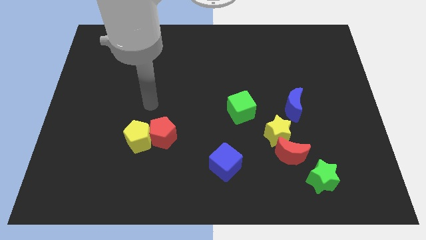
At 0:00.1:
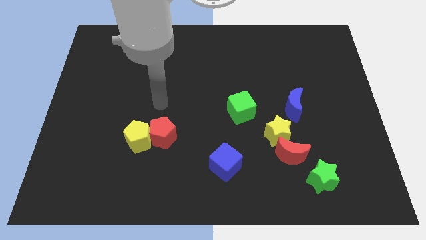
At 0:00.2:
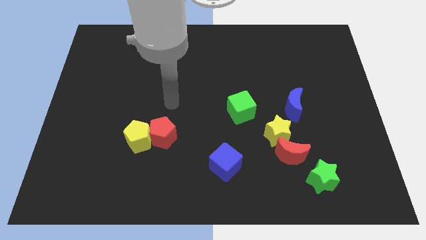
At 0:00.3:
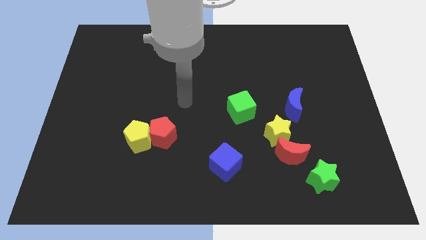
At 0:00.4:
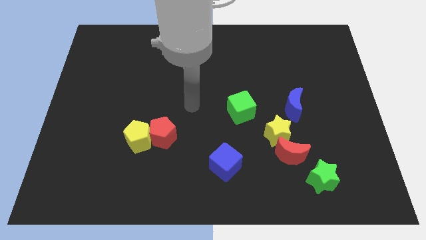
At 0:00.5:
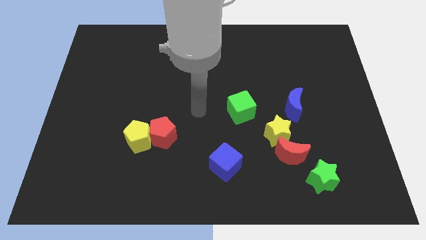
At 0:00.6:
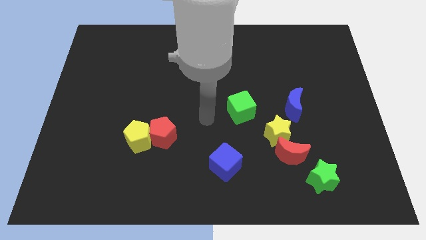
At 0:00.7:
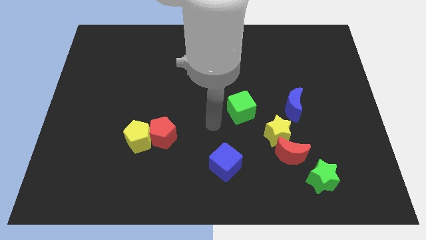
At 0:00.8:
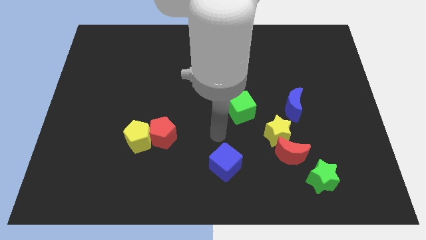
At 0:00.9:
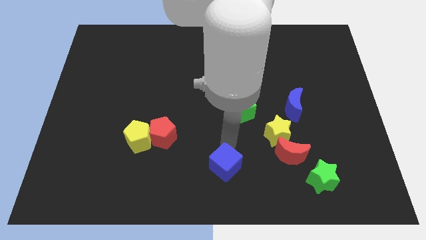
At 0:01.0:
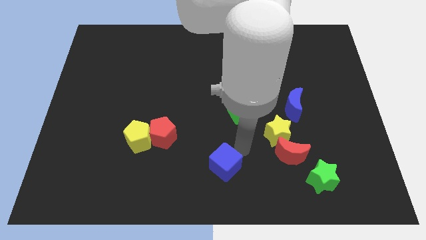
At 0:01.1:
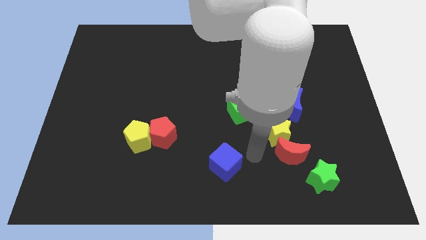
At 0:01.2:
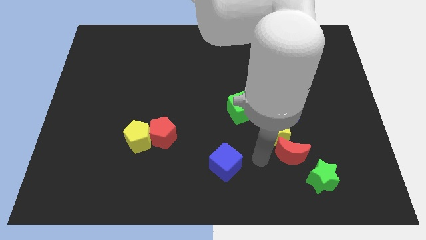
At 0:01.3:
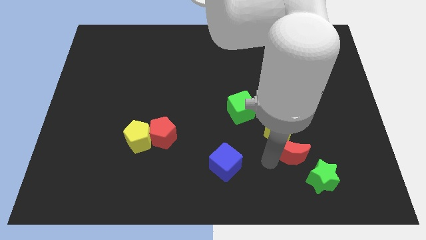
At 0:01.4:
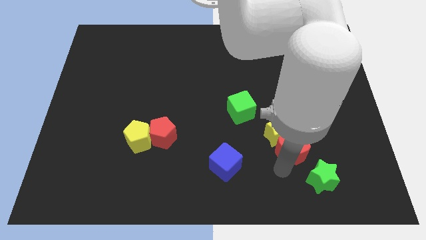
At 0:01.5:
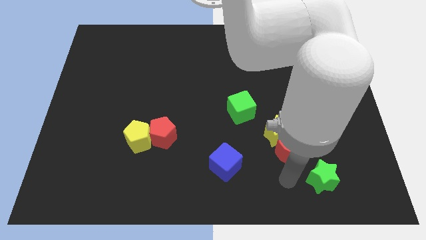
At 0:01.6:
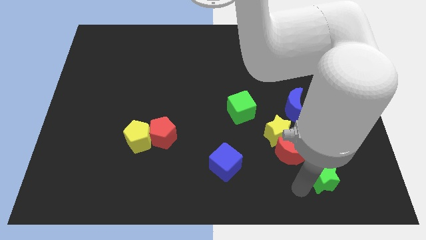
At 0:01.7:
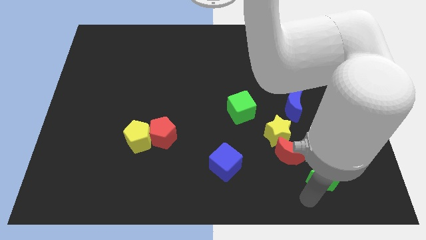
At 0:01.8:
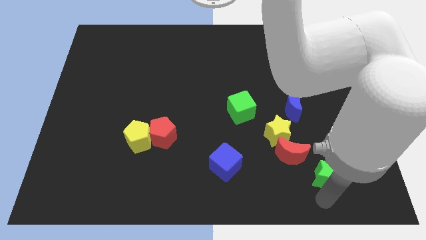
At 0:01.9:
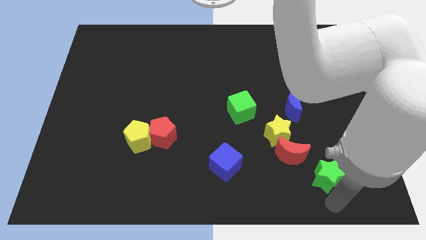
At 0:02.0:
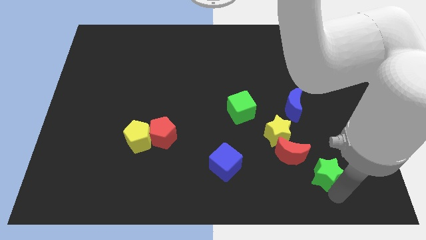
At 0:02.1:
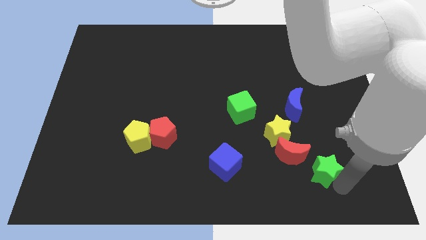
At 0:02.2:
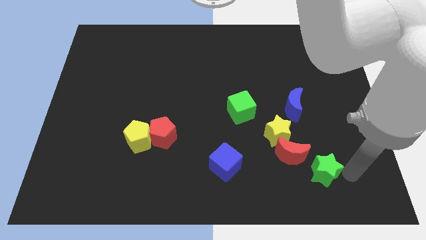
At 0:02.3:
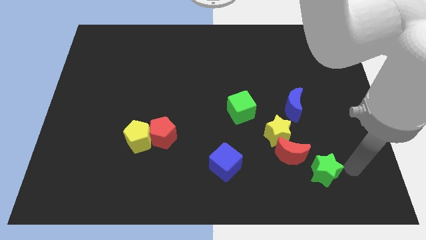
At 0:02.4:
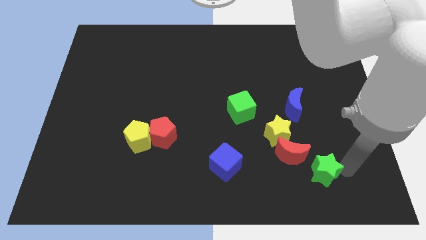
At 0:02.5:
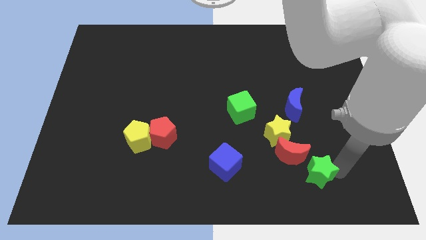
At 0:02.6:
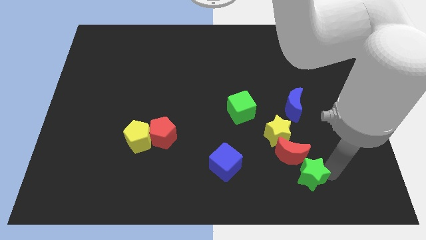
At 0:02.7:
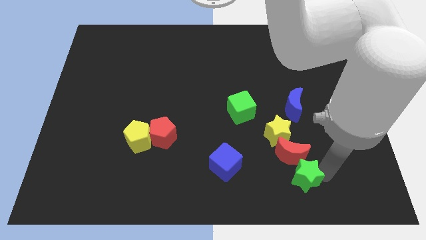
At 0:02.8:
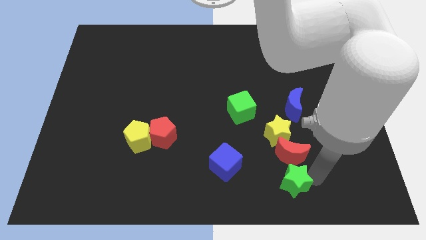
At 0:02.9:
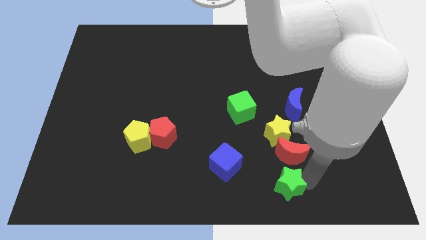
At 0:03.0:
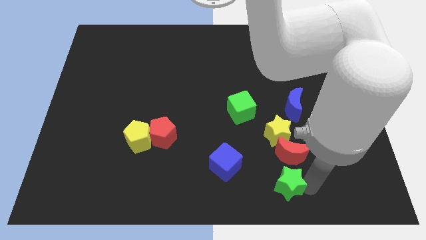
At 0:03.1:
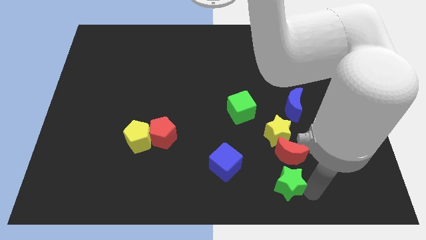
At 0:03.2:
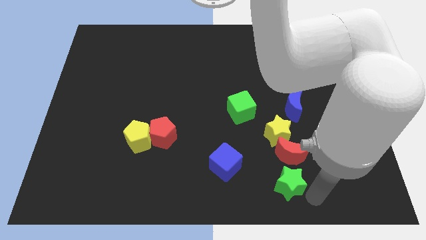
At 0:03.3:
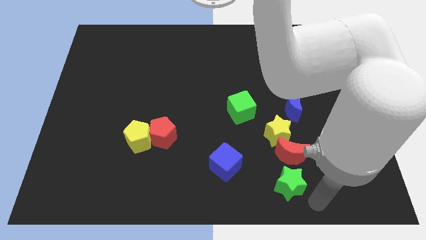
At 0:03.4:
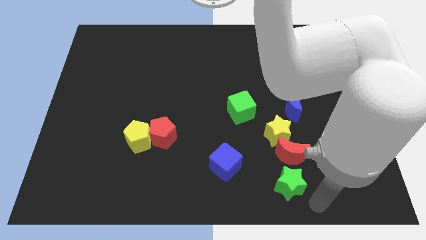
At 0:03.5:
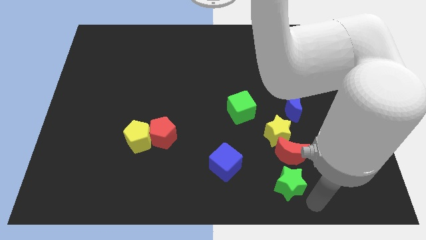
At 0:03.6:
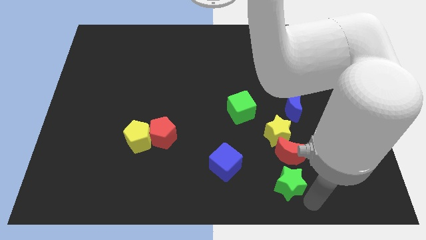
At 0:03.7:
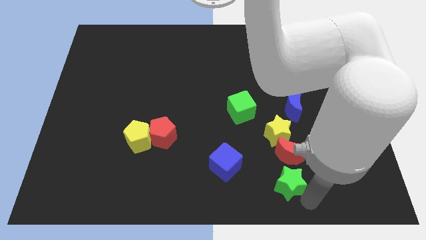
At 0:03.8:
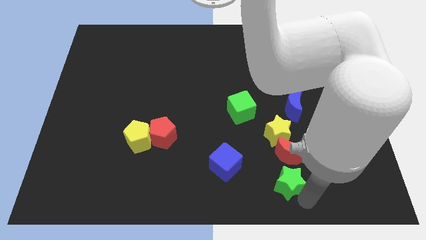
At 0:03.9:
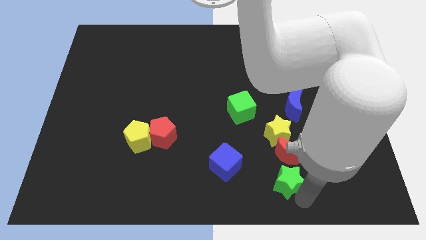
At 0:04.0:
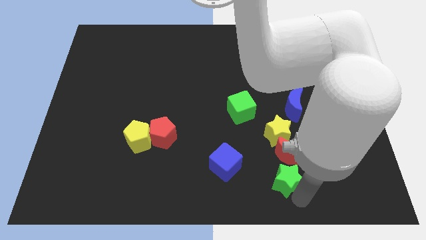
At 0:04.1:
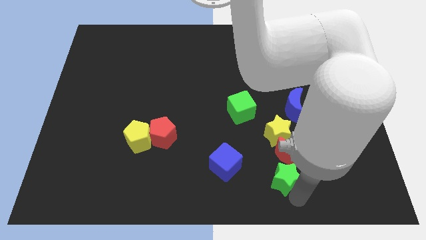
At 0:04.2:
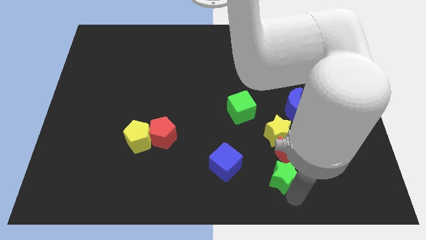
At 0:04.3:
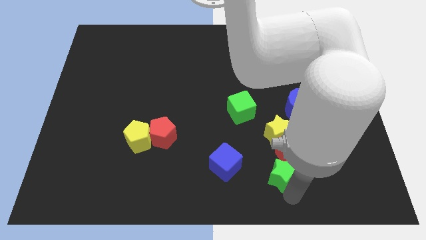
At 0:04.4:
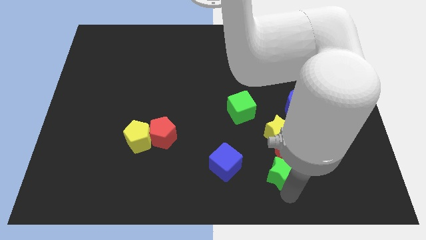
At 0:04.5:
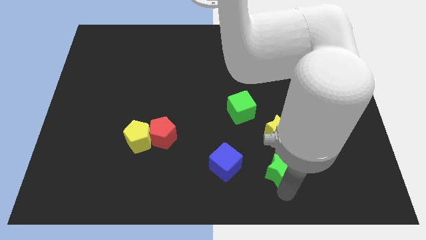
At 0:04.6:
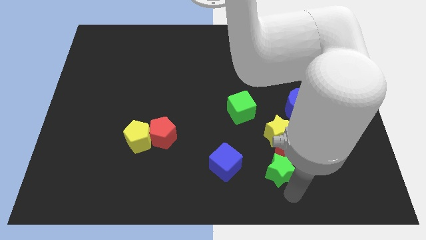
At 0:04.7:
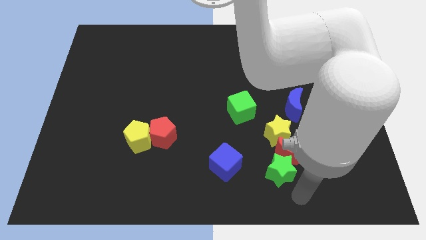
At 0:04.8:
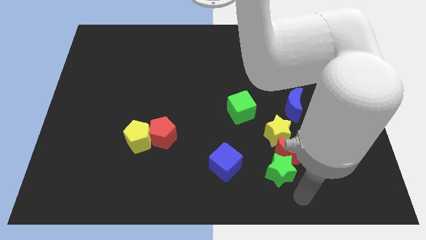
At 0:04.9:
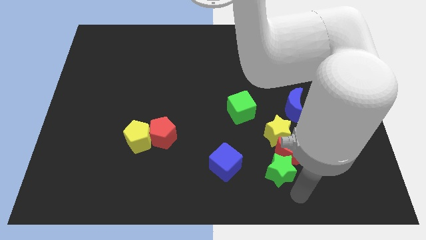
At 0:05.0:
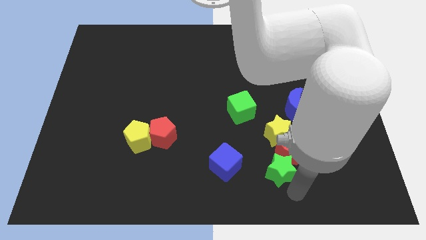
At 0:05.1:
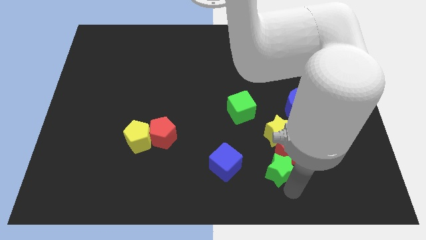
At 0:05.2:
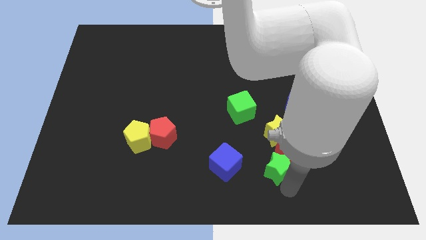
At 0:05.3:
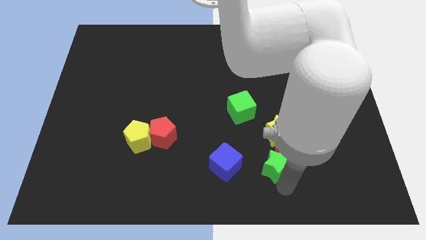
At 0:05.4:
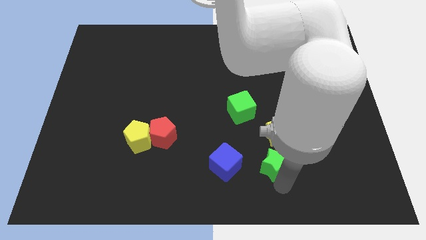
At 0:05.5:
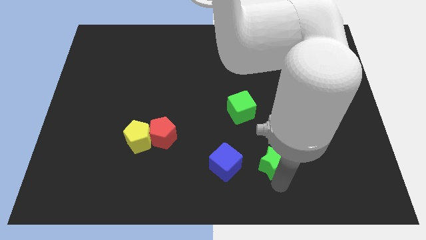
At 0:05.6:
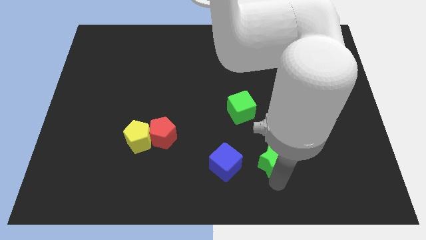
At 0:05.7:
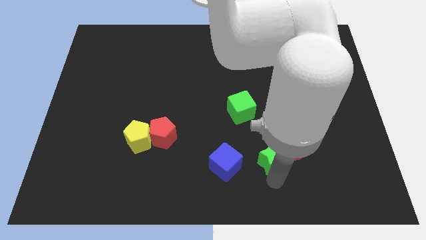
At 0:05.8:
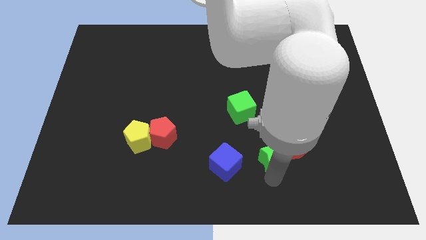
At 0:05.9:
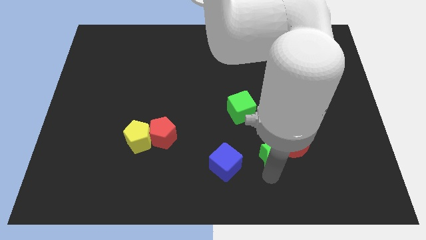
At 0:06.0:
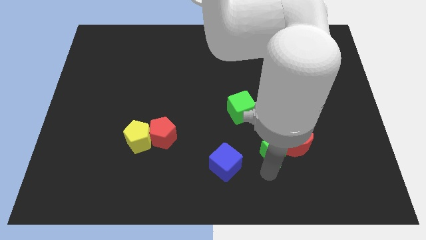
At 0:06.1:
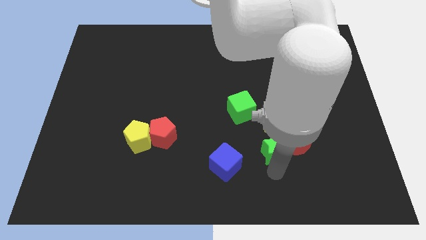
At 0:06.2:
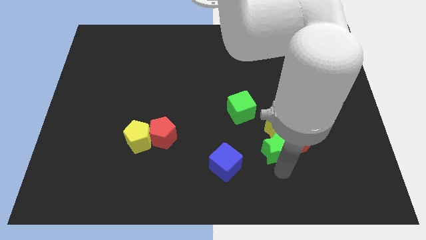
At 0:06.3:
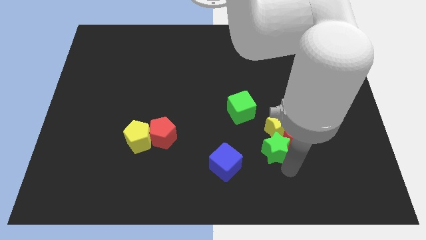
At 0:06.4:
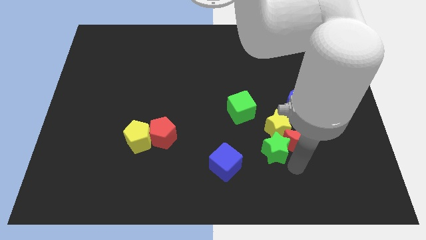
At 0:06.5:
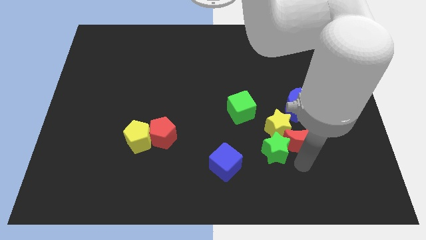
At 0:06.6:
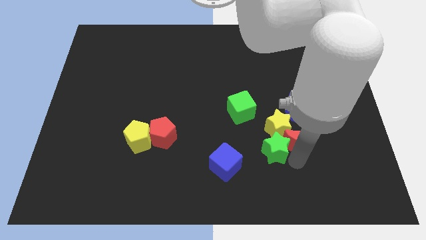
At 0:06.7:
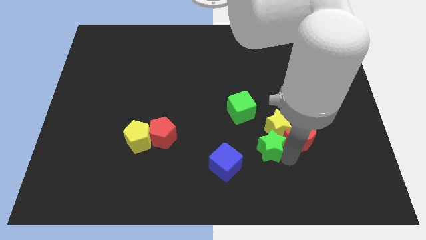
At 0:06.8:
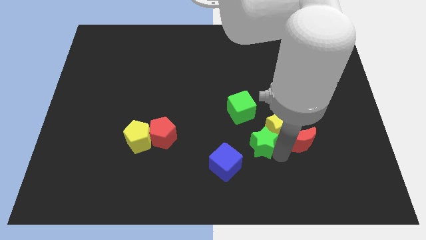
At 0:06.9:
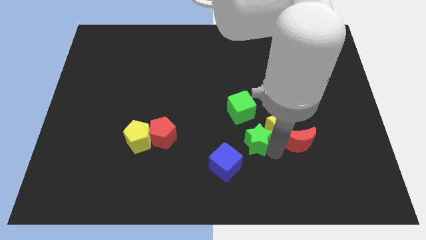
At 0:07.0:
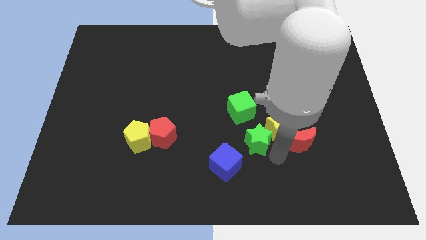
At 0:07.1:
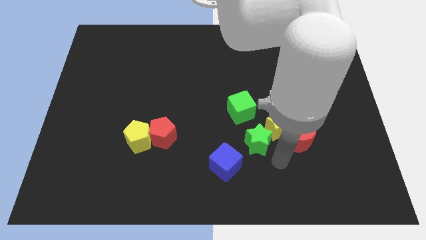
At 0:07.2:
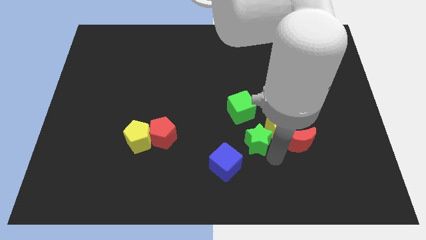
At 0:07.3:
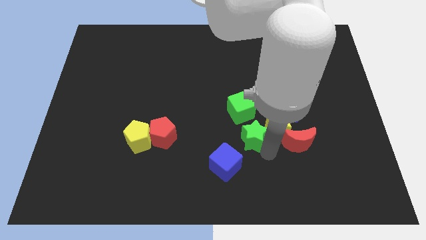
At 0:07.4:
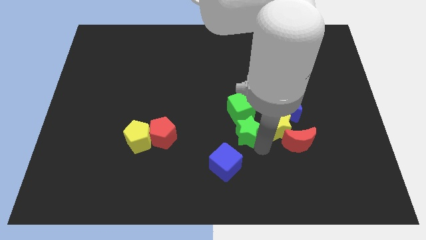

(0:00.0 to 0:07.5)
slide the green star to the center of the board
